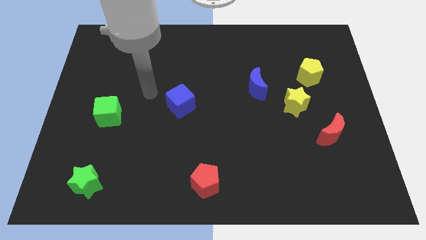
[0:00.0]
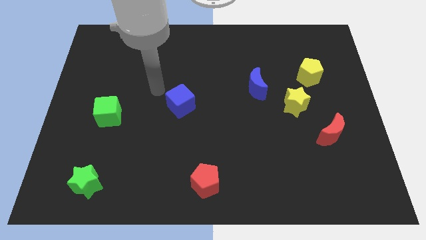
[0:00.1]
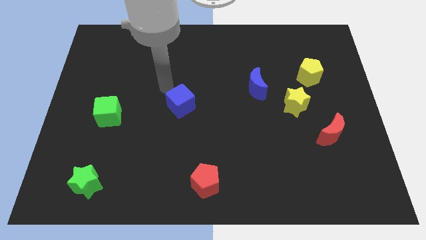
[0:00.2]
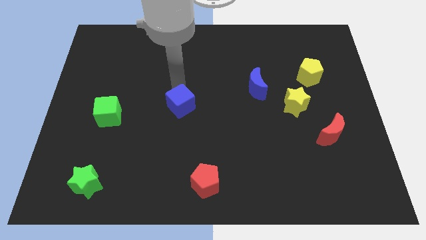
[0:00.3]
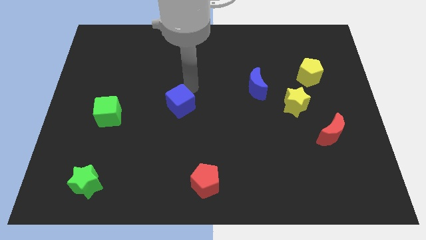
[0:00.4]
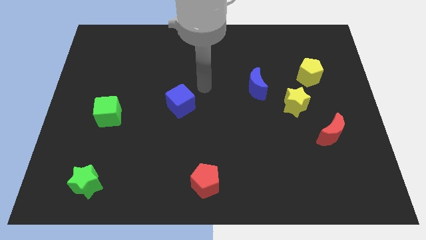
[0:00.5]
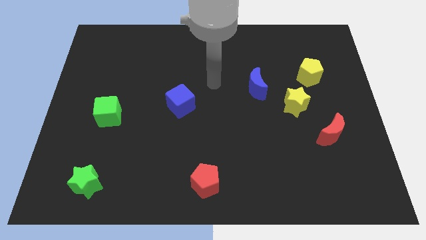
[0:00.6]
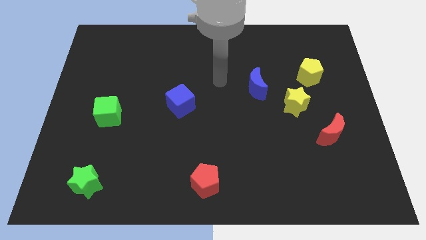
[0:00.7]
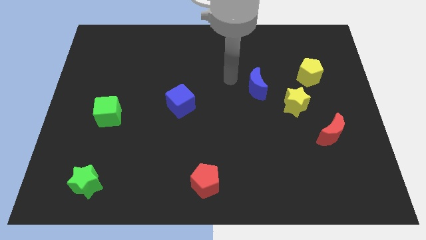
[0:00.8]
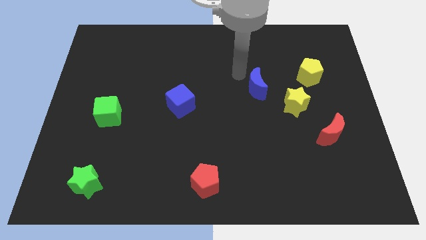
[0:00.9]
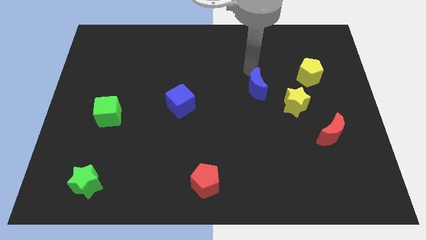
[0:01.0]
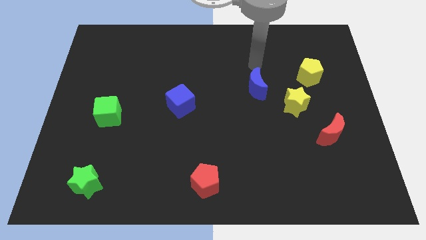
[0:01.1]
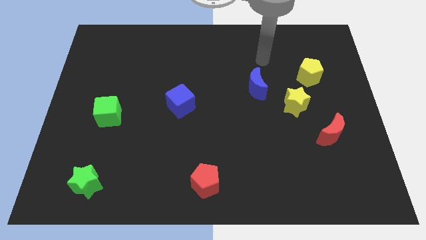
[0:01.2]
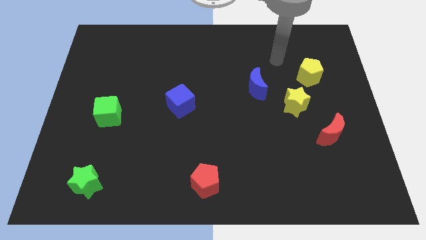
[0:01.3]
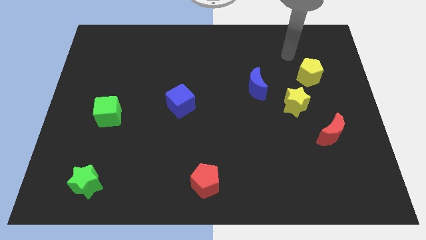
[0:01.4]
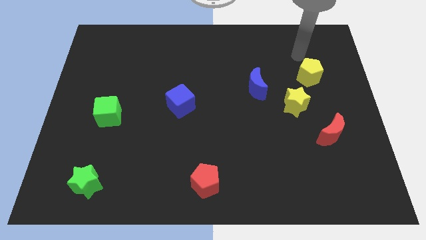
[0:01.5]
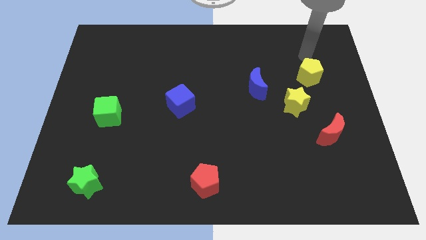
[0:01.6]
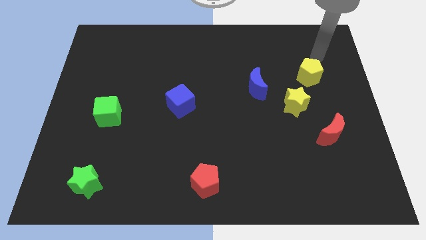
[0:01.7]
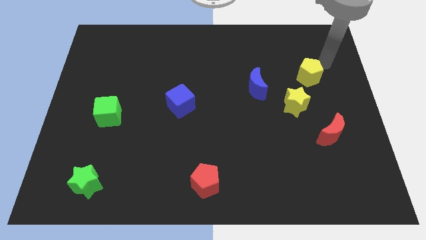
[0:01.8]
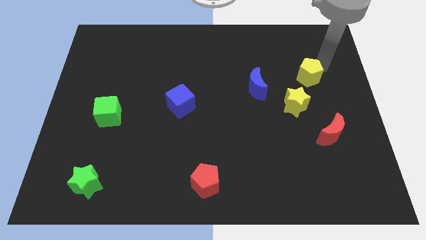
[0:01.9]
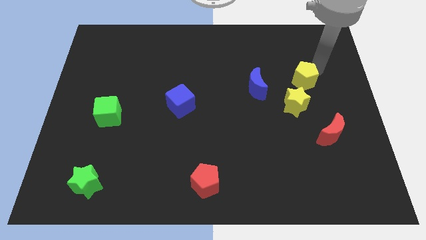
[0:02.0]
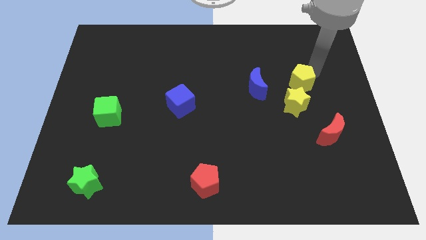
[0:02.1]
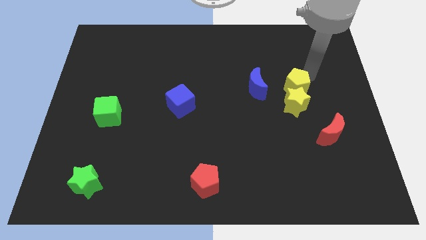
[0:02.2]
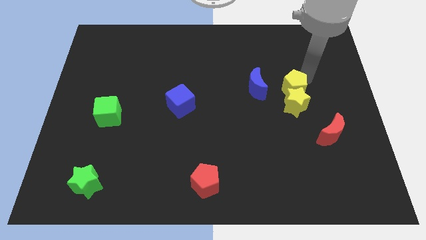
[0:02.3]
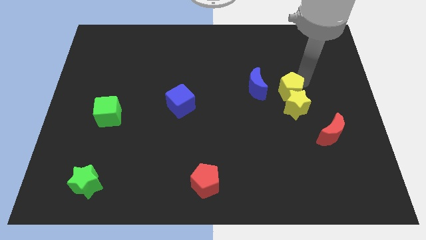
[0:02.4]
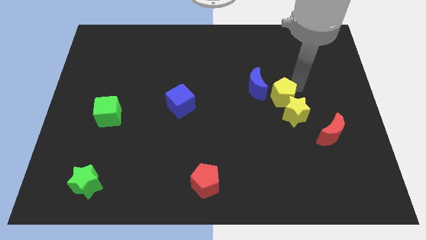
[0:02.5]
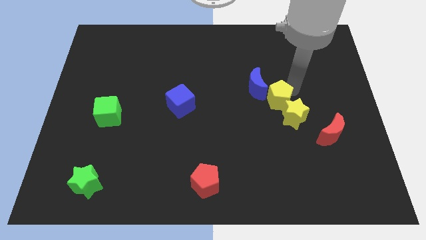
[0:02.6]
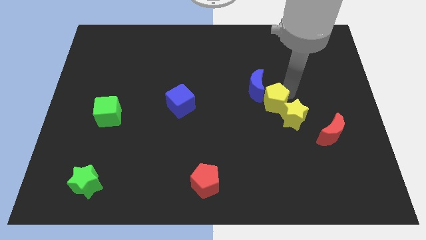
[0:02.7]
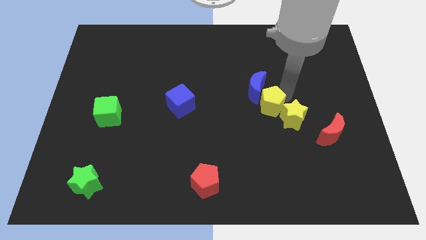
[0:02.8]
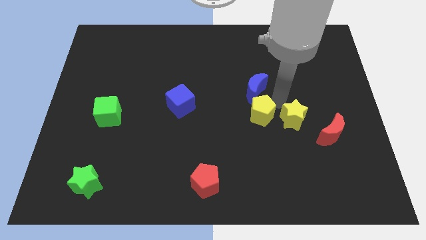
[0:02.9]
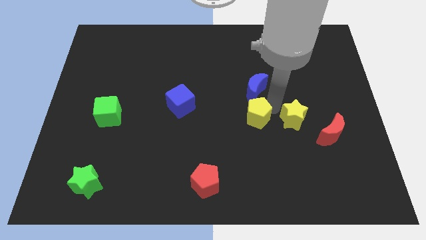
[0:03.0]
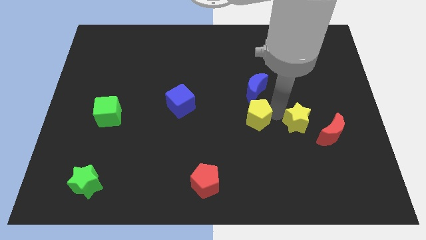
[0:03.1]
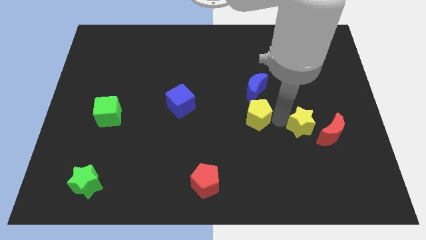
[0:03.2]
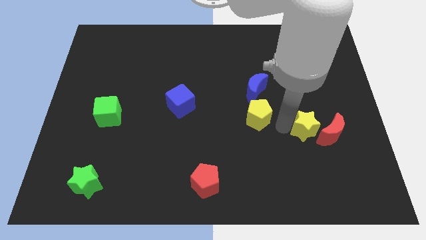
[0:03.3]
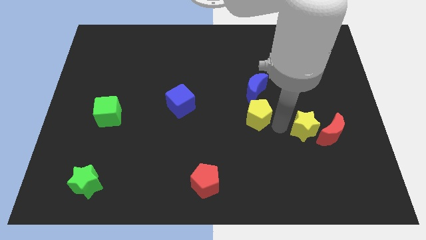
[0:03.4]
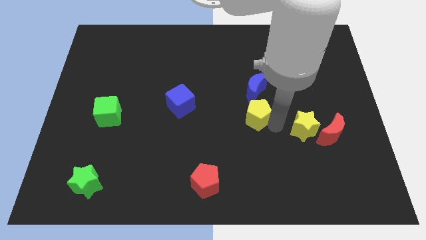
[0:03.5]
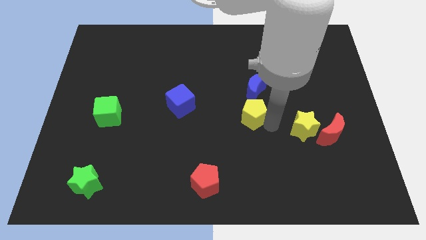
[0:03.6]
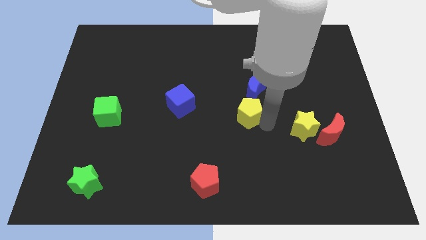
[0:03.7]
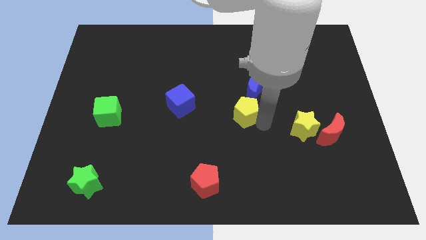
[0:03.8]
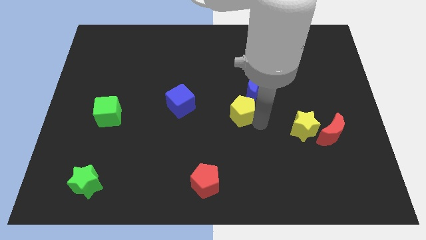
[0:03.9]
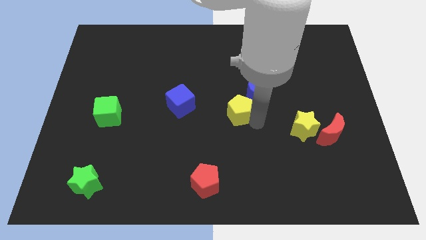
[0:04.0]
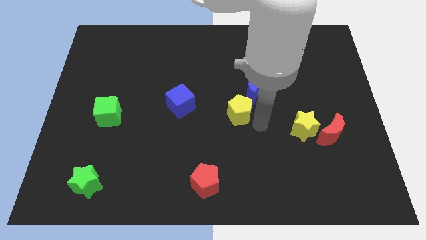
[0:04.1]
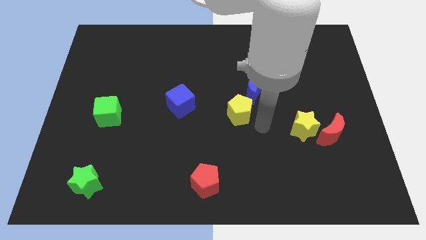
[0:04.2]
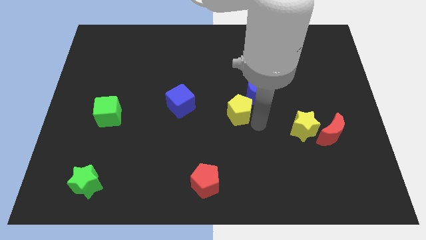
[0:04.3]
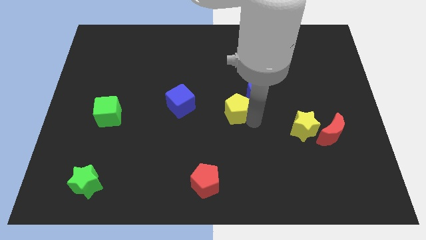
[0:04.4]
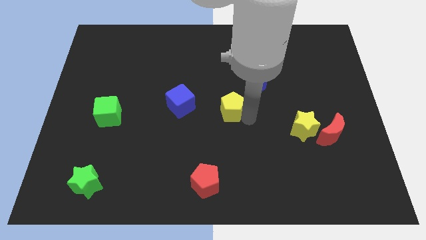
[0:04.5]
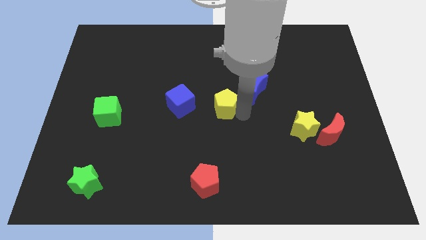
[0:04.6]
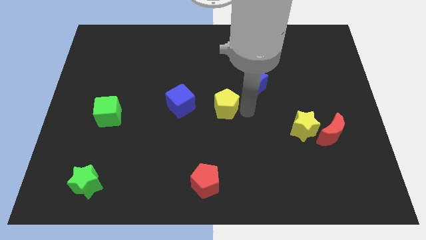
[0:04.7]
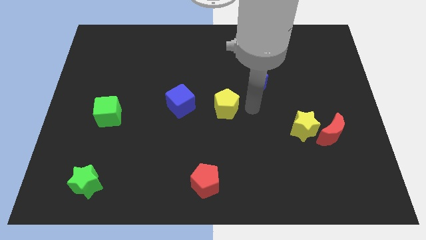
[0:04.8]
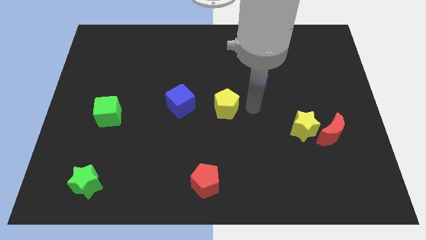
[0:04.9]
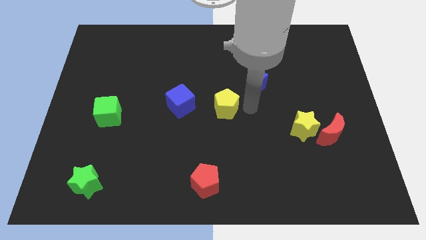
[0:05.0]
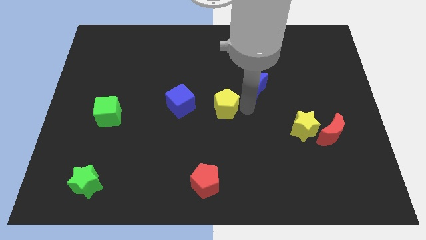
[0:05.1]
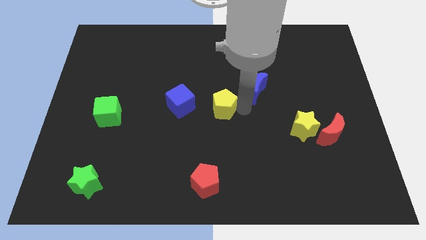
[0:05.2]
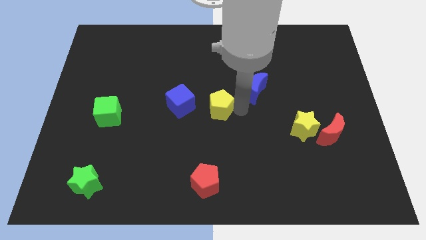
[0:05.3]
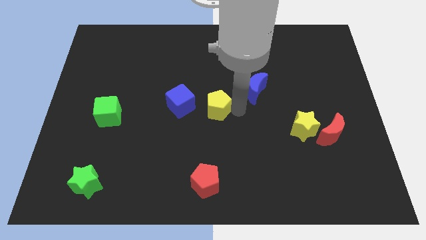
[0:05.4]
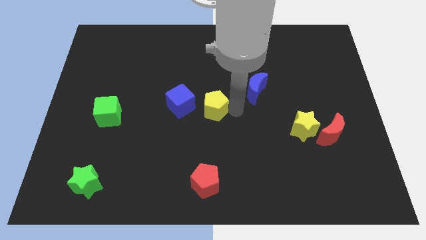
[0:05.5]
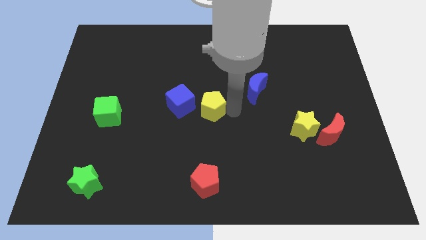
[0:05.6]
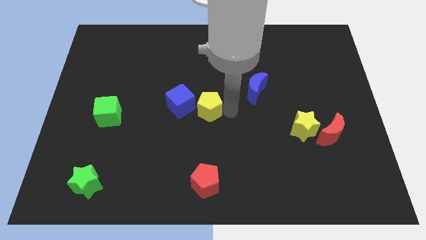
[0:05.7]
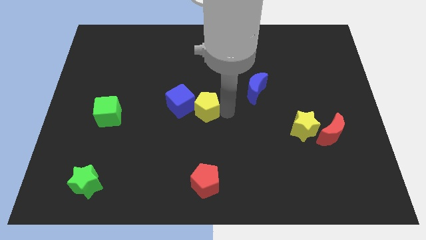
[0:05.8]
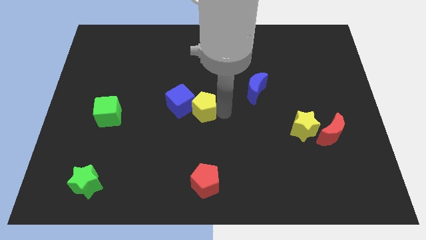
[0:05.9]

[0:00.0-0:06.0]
put the yellow pentagon next to the blue cube

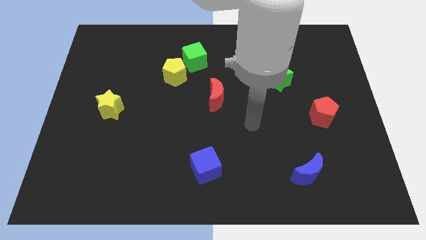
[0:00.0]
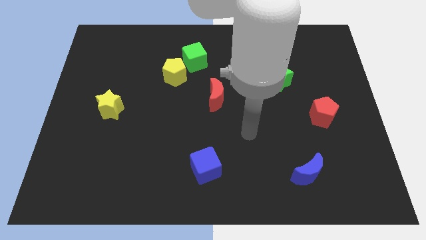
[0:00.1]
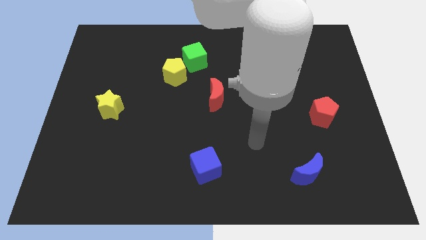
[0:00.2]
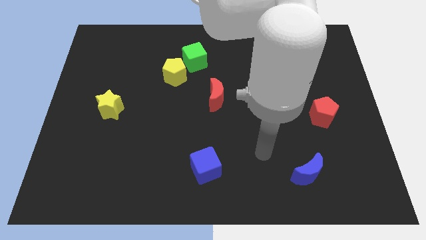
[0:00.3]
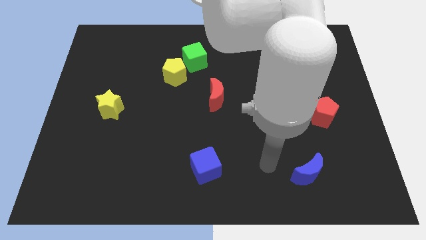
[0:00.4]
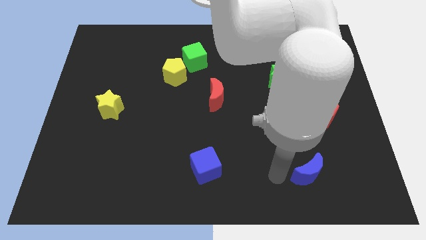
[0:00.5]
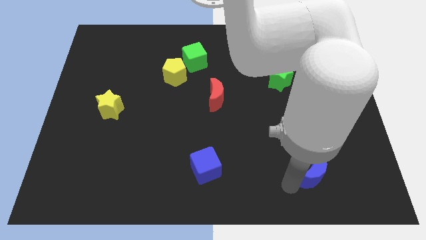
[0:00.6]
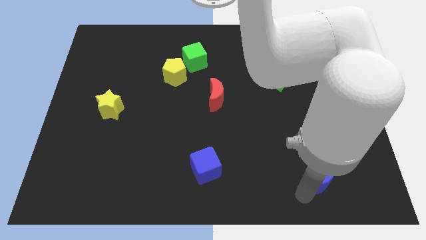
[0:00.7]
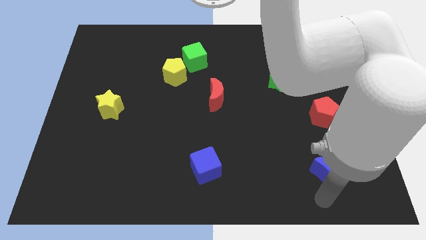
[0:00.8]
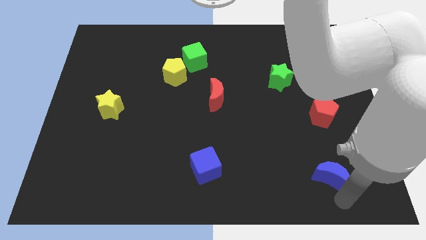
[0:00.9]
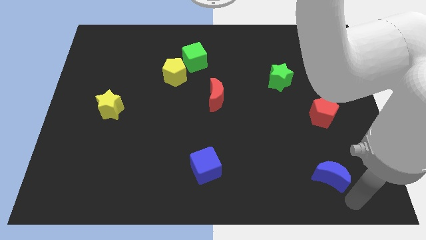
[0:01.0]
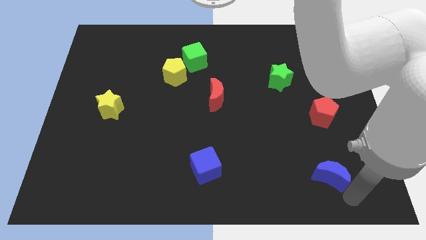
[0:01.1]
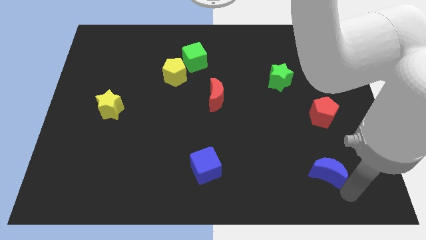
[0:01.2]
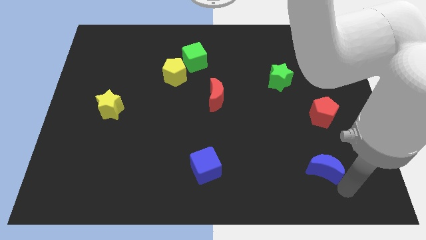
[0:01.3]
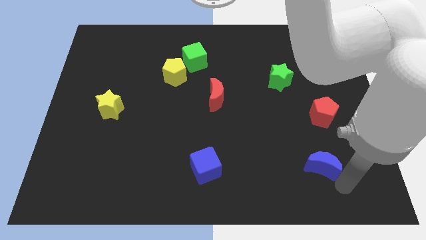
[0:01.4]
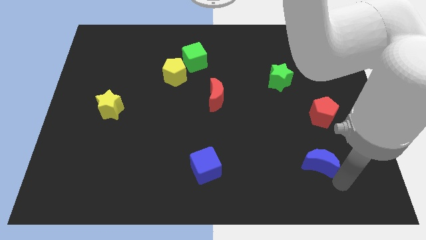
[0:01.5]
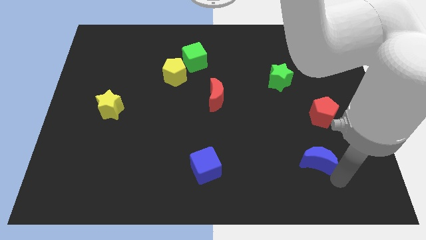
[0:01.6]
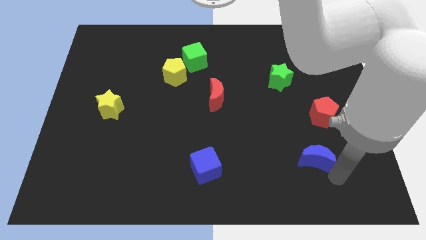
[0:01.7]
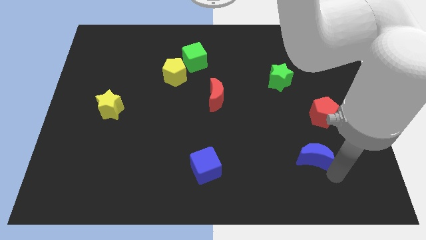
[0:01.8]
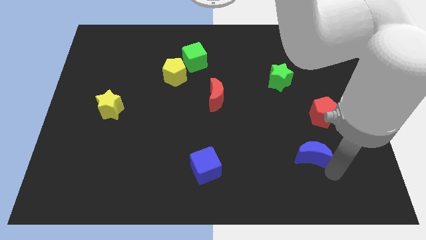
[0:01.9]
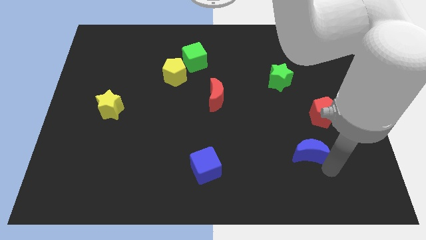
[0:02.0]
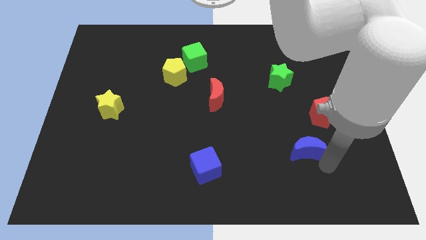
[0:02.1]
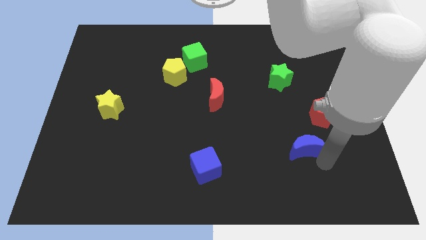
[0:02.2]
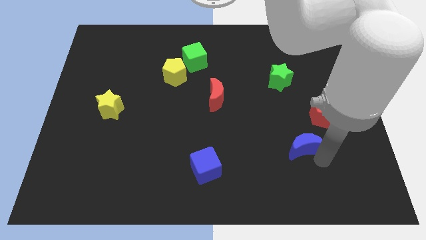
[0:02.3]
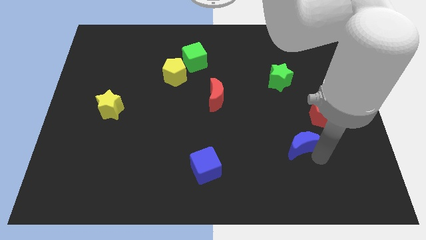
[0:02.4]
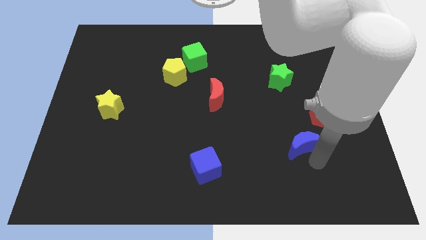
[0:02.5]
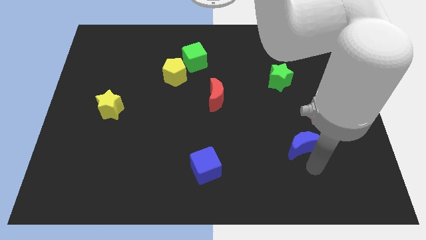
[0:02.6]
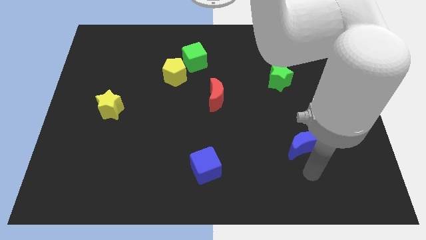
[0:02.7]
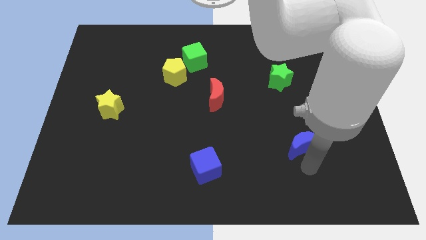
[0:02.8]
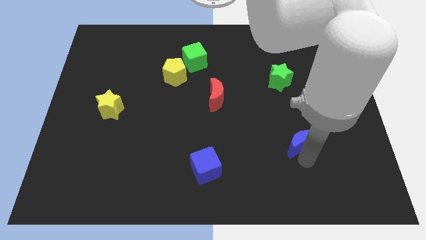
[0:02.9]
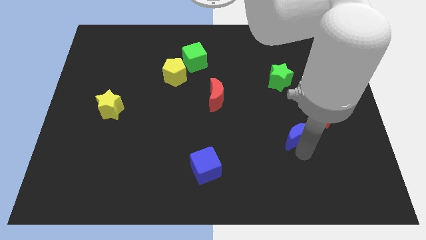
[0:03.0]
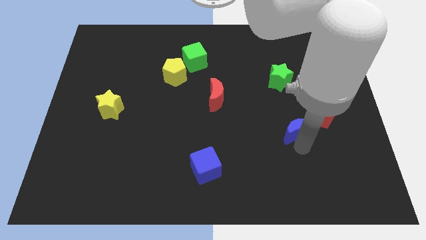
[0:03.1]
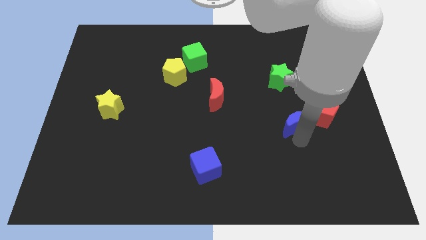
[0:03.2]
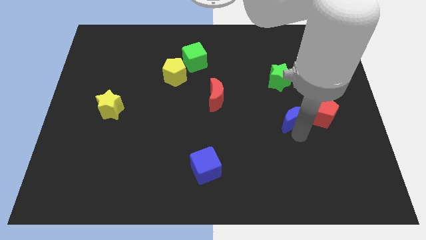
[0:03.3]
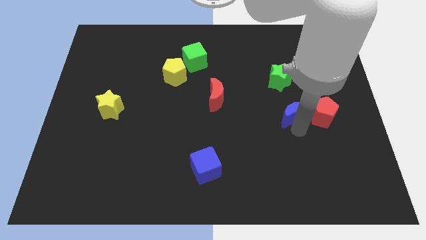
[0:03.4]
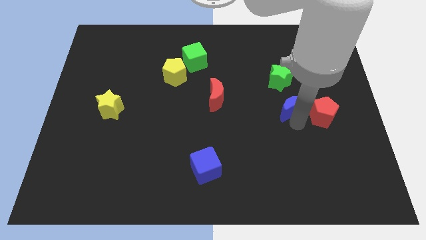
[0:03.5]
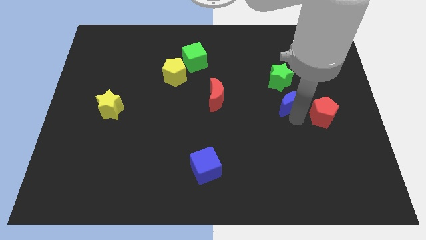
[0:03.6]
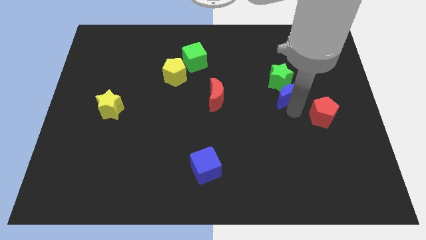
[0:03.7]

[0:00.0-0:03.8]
move the blue moon towards the green star
